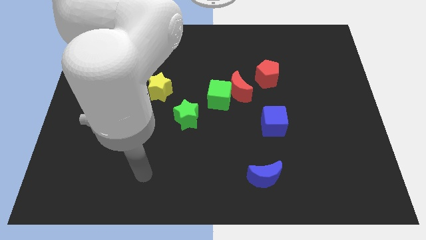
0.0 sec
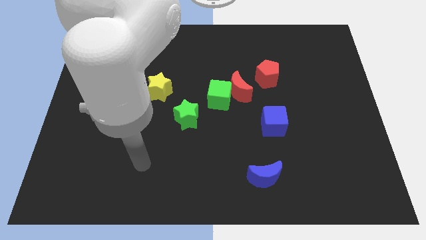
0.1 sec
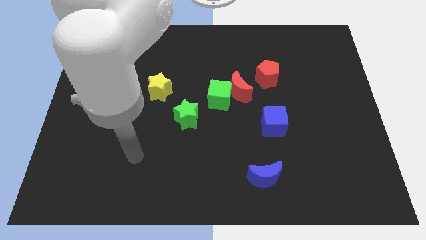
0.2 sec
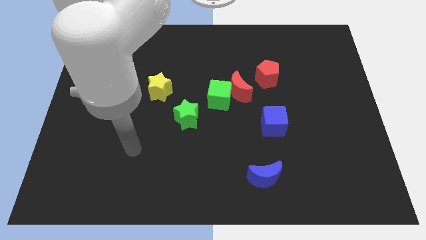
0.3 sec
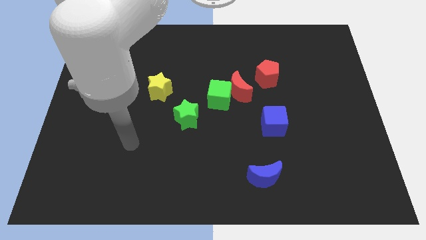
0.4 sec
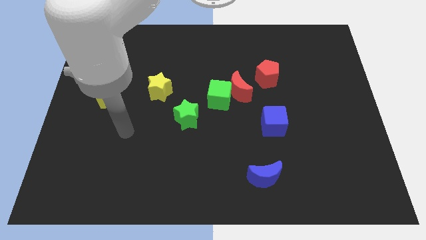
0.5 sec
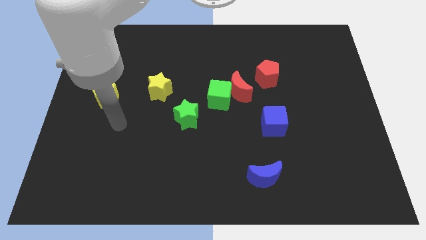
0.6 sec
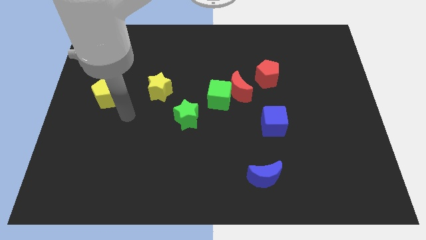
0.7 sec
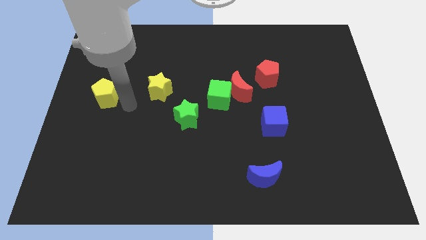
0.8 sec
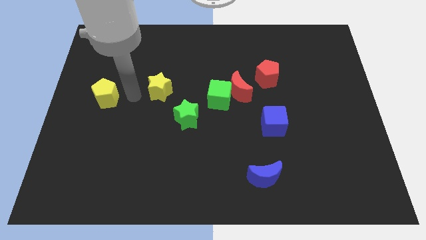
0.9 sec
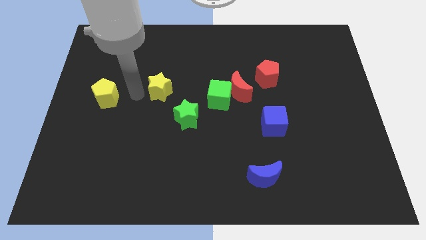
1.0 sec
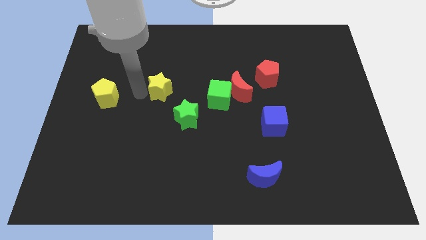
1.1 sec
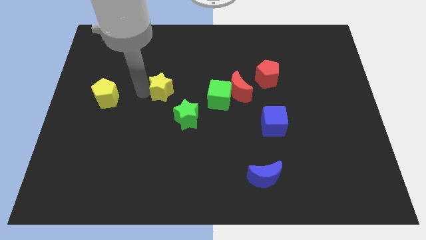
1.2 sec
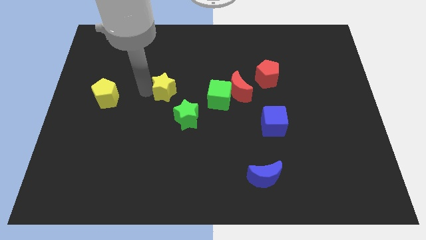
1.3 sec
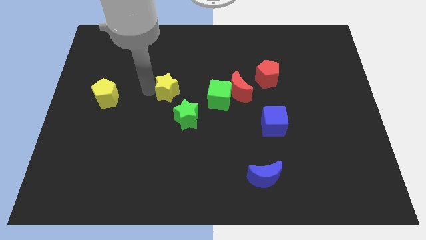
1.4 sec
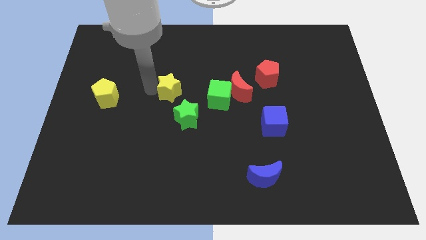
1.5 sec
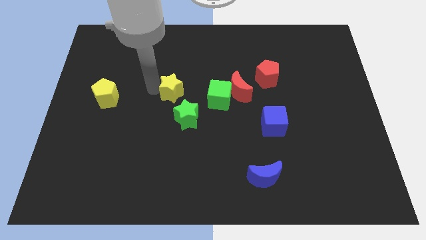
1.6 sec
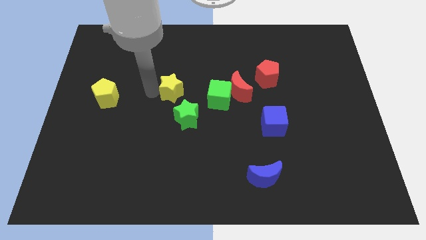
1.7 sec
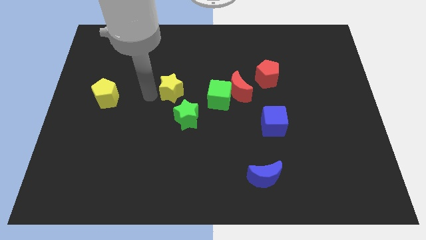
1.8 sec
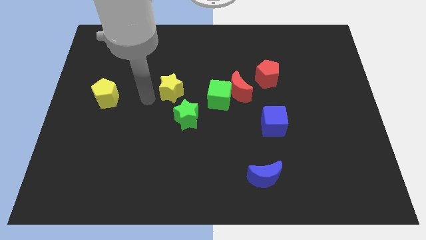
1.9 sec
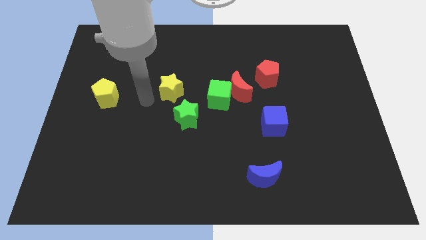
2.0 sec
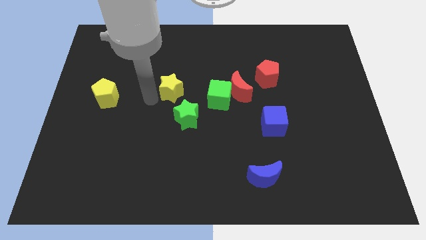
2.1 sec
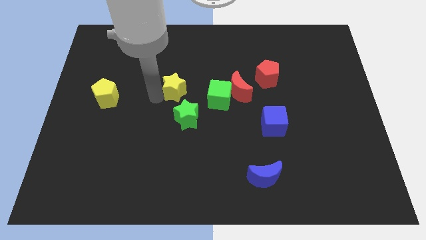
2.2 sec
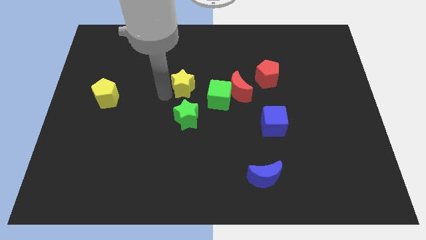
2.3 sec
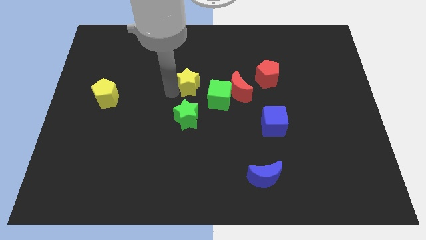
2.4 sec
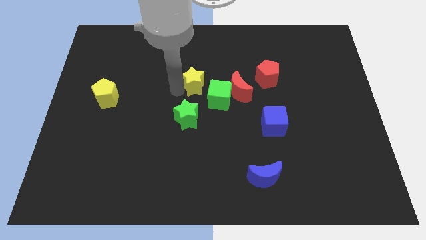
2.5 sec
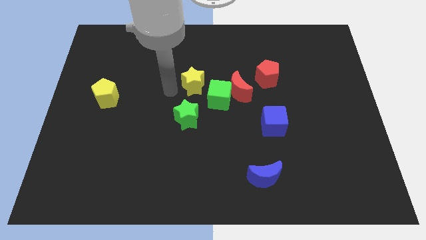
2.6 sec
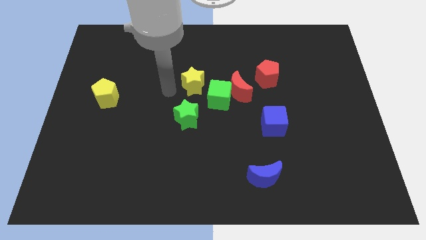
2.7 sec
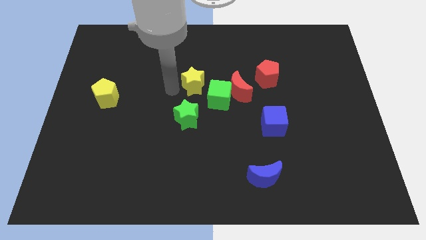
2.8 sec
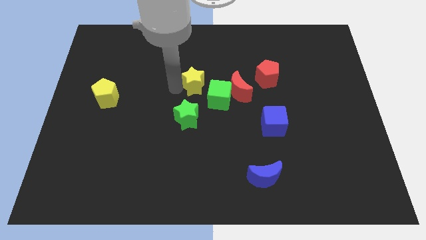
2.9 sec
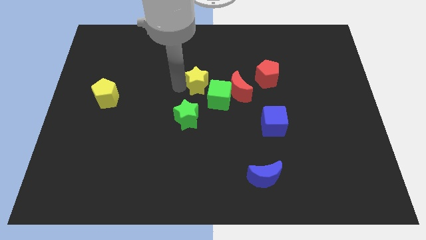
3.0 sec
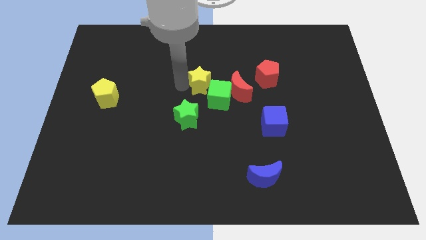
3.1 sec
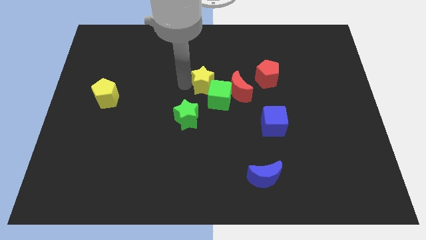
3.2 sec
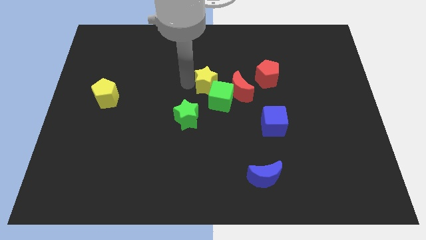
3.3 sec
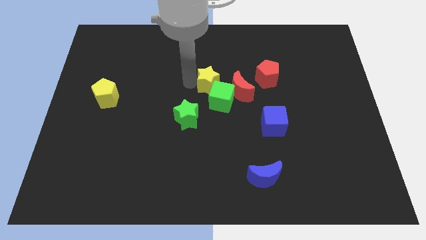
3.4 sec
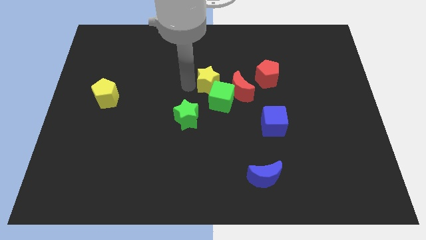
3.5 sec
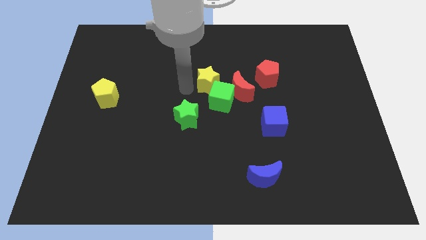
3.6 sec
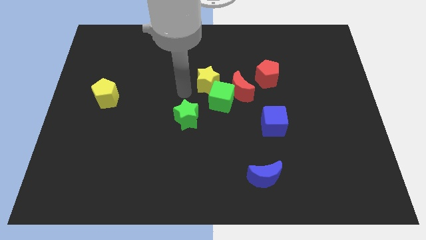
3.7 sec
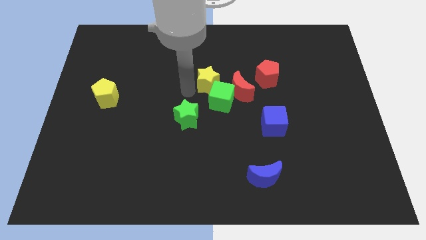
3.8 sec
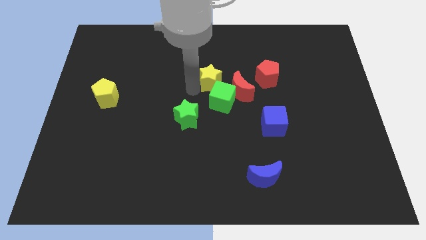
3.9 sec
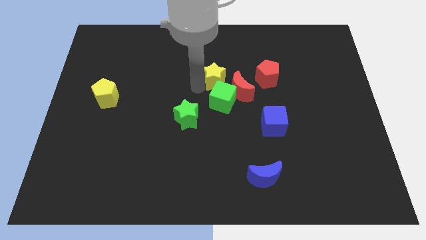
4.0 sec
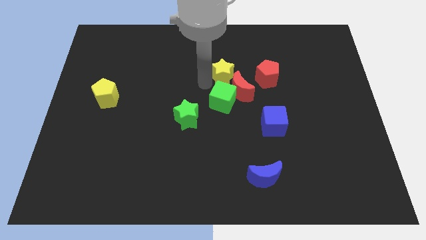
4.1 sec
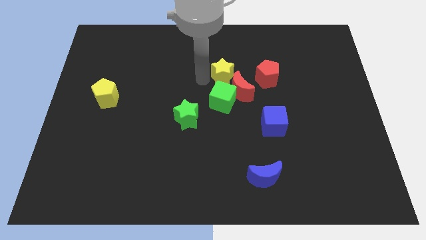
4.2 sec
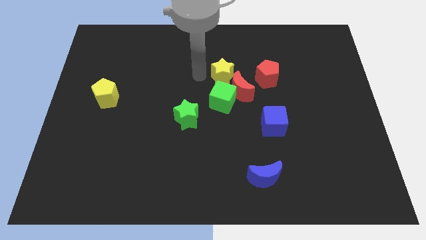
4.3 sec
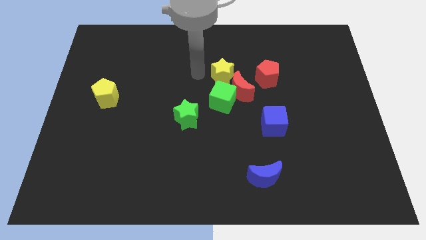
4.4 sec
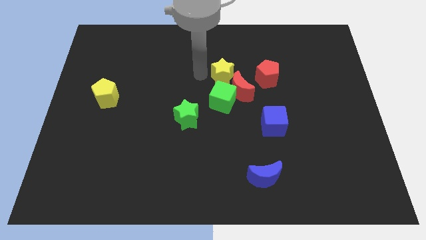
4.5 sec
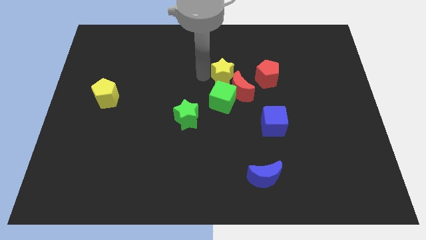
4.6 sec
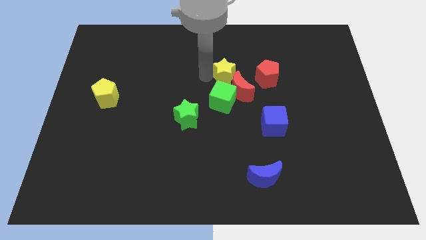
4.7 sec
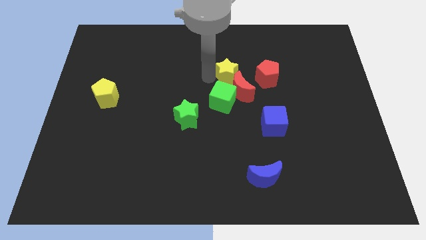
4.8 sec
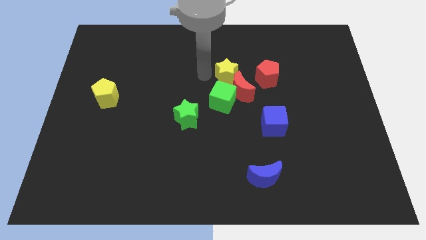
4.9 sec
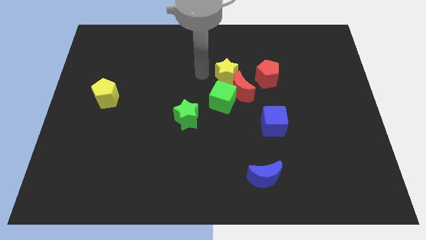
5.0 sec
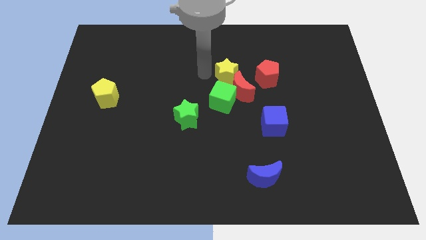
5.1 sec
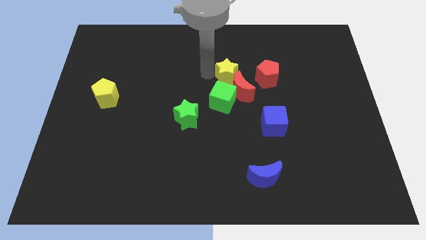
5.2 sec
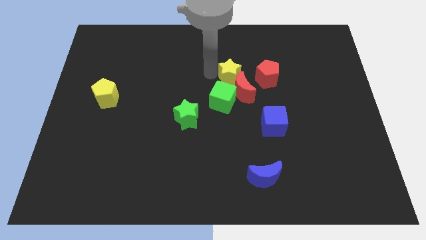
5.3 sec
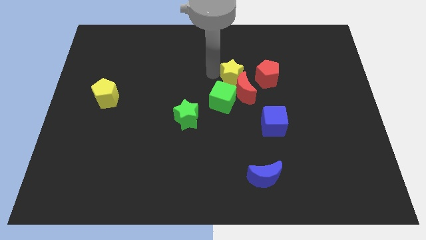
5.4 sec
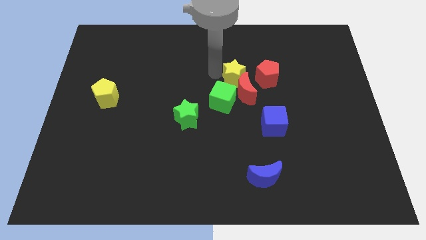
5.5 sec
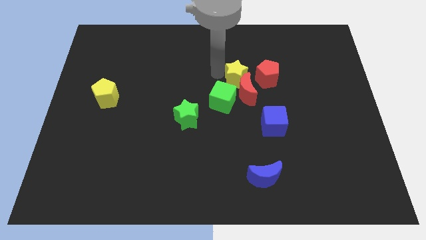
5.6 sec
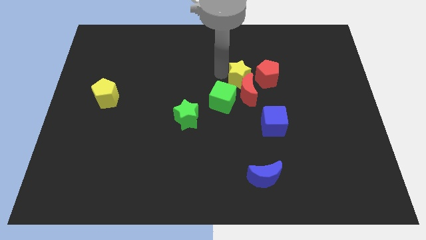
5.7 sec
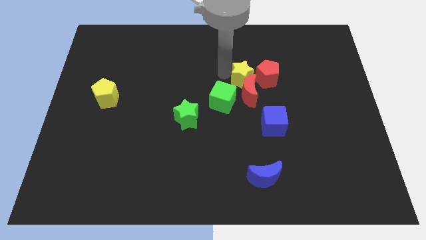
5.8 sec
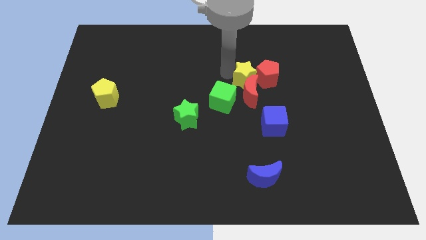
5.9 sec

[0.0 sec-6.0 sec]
move the yellow star close to the red pentagon

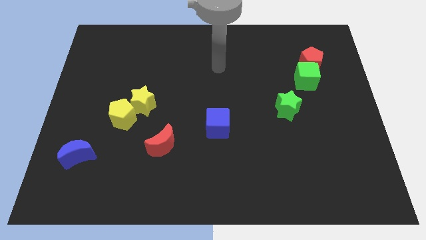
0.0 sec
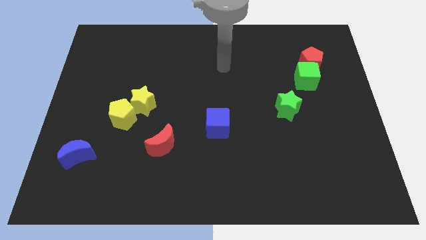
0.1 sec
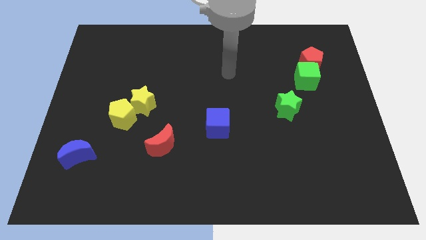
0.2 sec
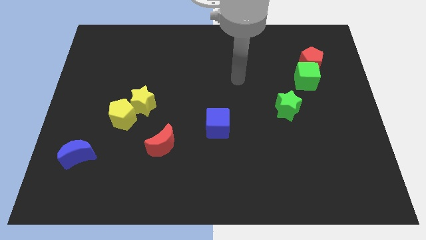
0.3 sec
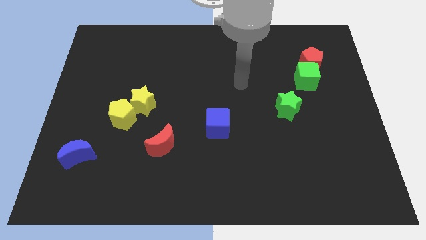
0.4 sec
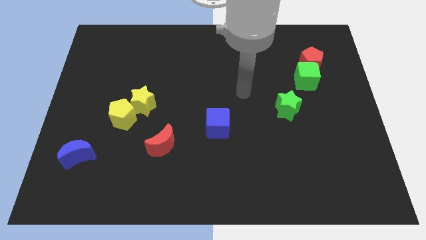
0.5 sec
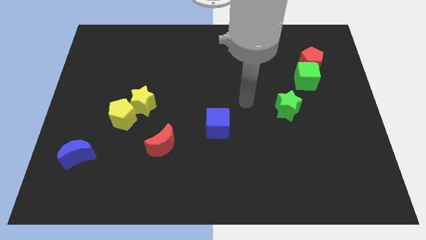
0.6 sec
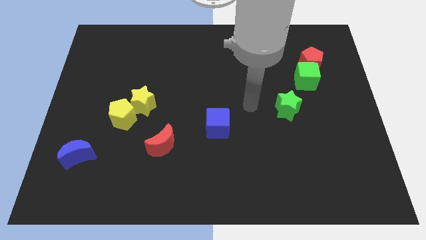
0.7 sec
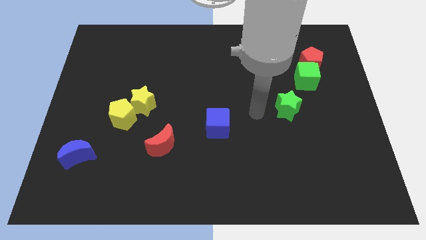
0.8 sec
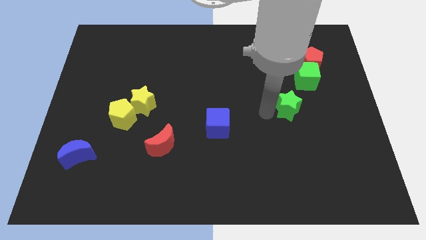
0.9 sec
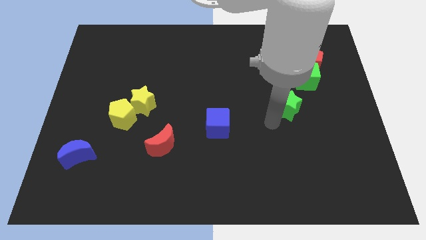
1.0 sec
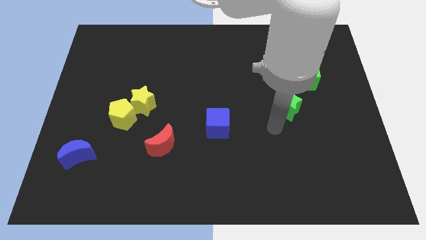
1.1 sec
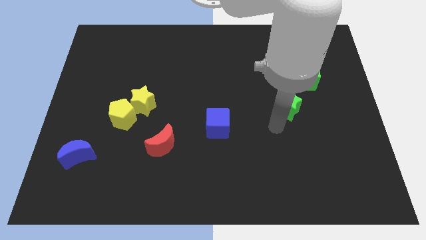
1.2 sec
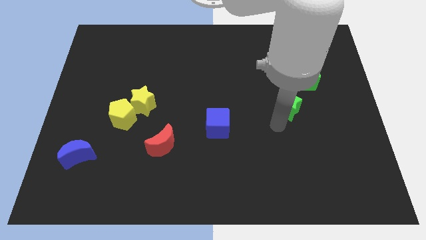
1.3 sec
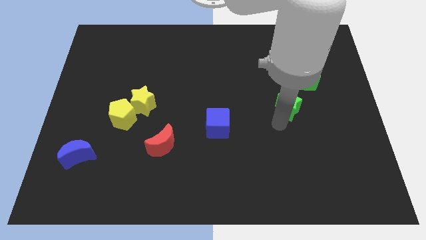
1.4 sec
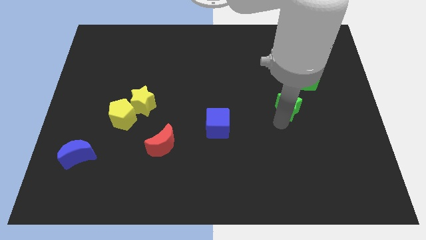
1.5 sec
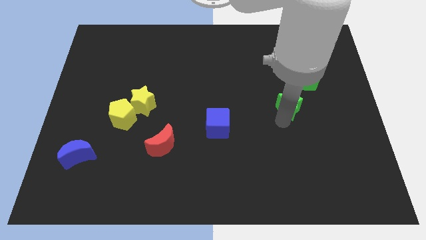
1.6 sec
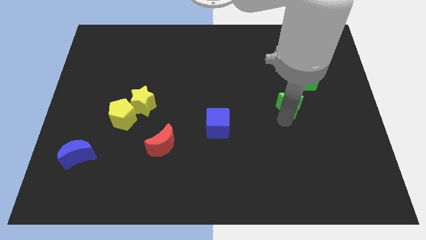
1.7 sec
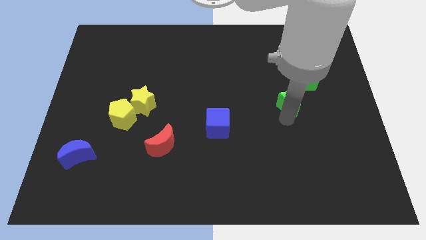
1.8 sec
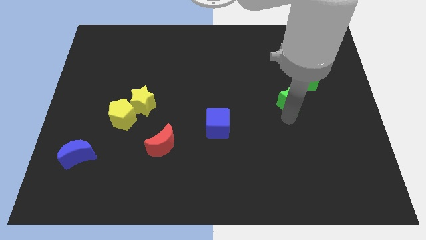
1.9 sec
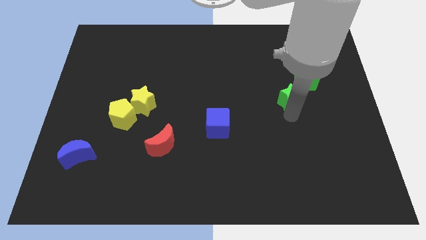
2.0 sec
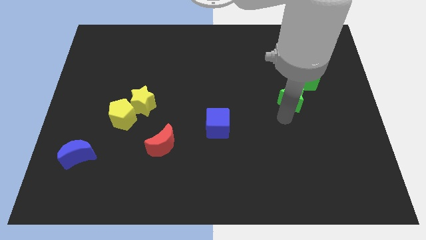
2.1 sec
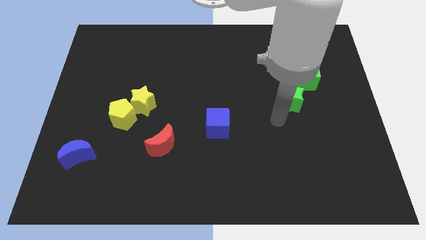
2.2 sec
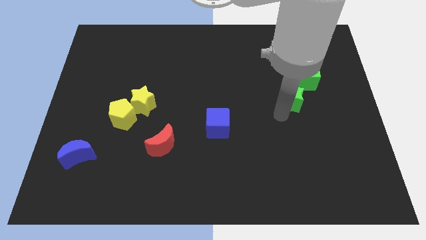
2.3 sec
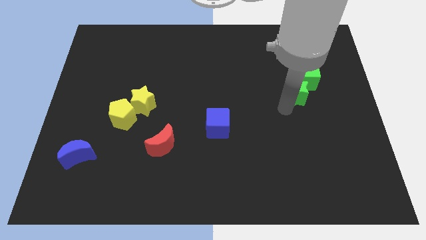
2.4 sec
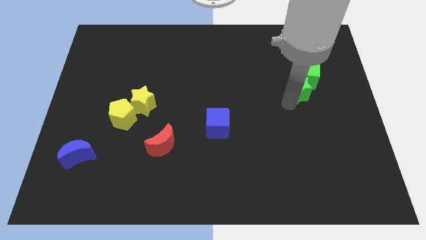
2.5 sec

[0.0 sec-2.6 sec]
put the green star close to the green cube

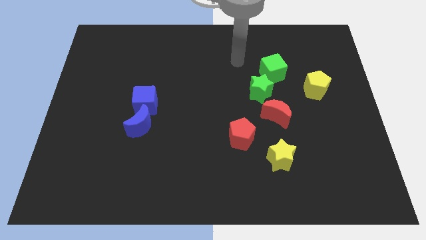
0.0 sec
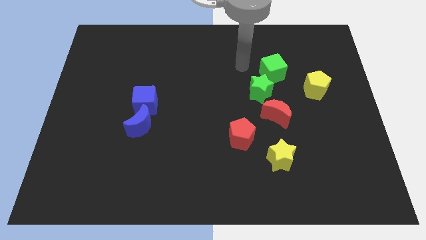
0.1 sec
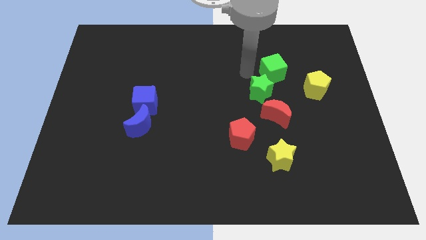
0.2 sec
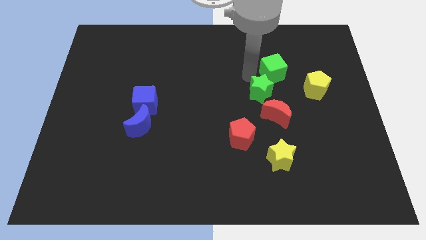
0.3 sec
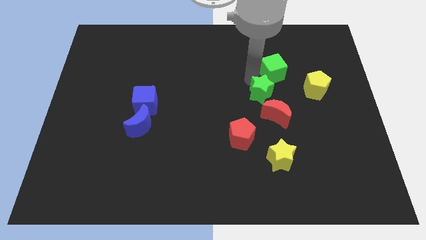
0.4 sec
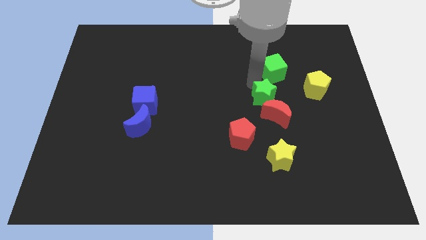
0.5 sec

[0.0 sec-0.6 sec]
move the green star to the red moon
